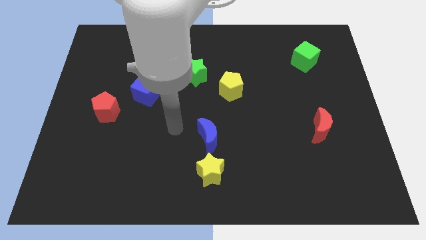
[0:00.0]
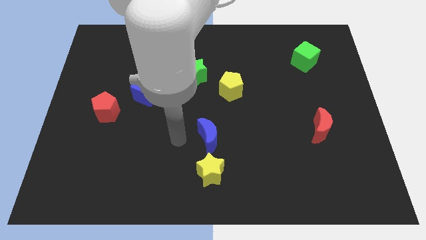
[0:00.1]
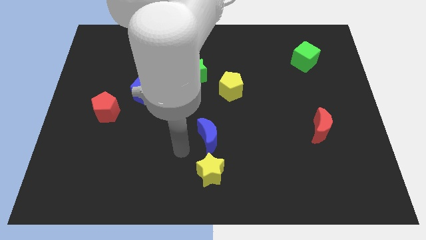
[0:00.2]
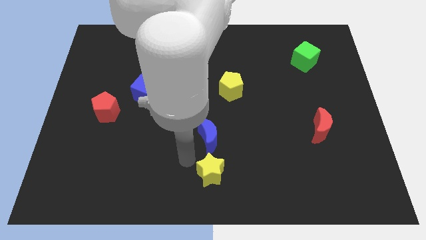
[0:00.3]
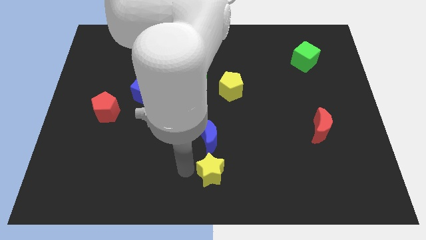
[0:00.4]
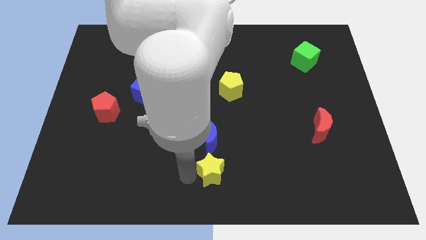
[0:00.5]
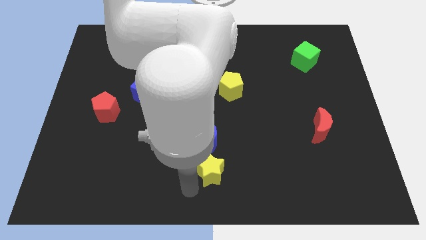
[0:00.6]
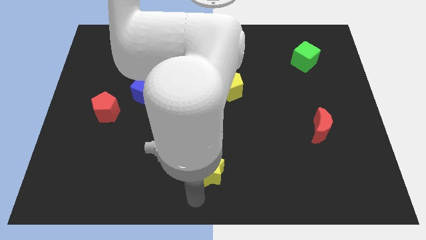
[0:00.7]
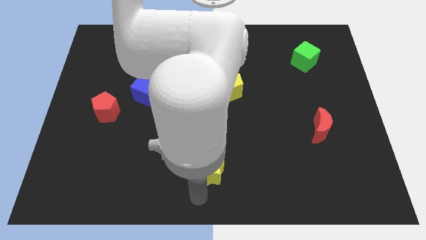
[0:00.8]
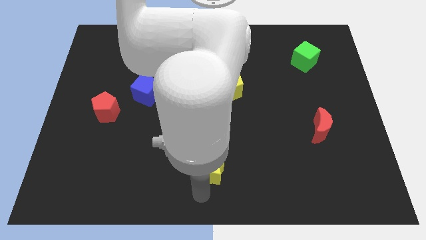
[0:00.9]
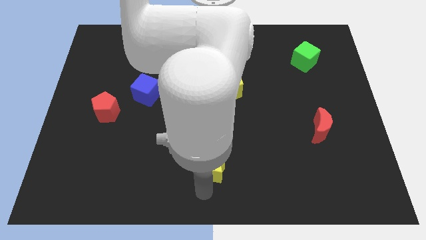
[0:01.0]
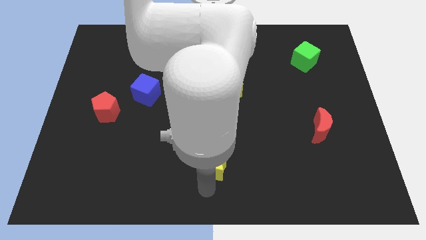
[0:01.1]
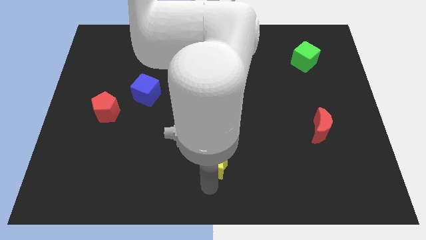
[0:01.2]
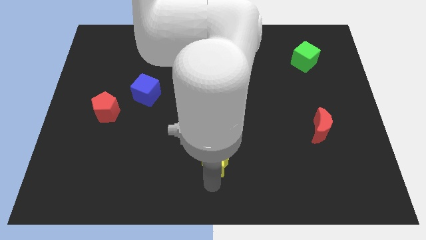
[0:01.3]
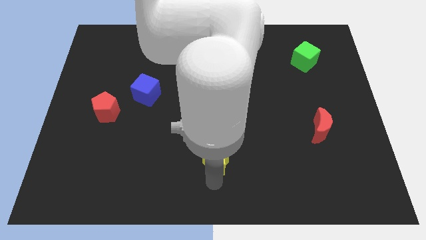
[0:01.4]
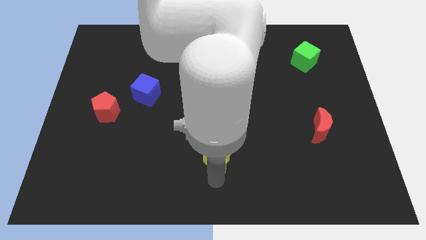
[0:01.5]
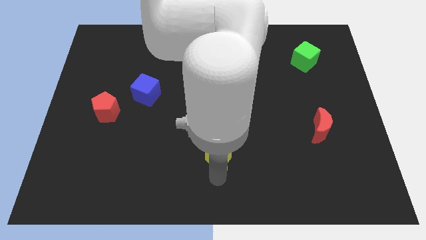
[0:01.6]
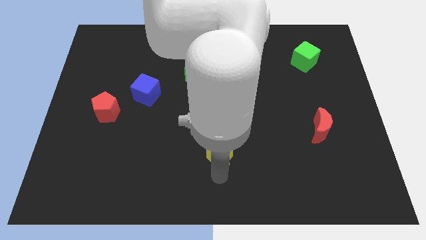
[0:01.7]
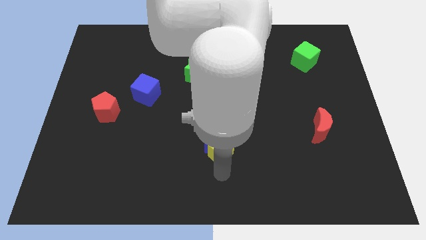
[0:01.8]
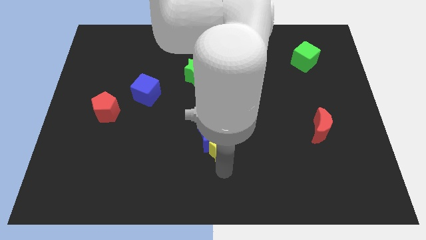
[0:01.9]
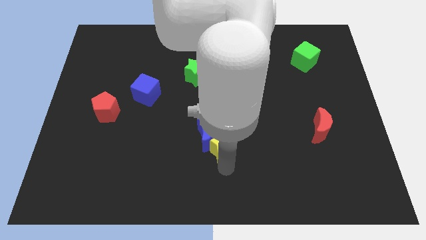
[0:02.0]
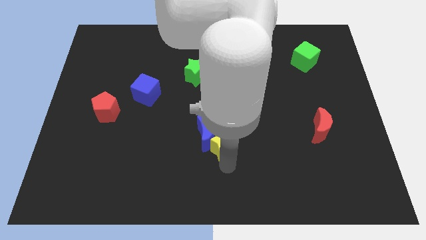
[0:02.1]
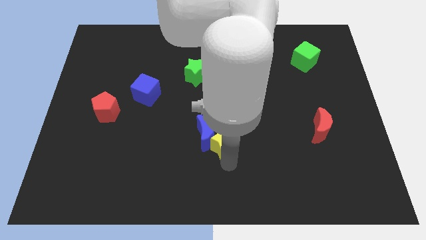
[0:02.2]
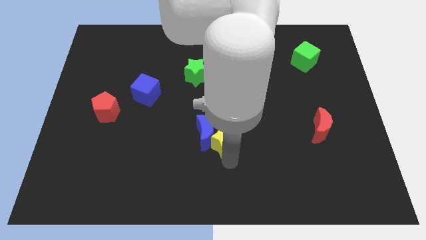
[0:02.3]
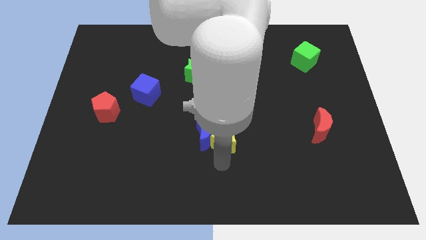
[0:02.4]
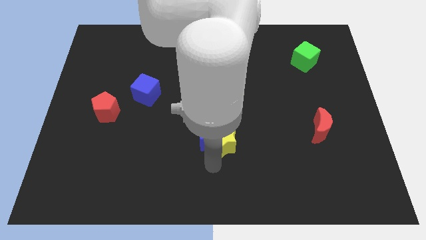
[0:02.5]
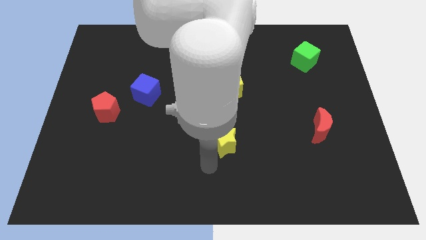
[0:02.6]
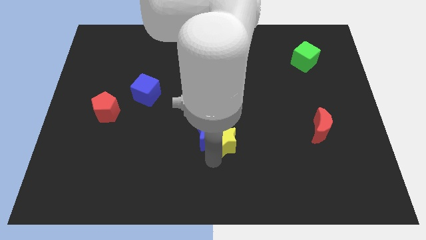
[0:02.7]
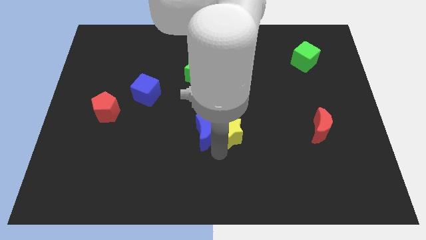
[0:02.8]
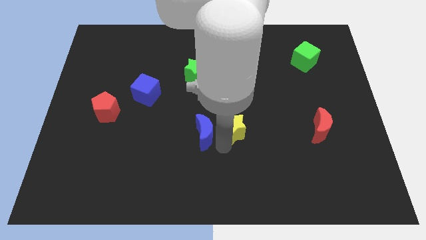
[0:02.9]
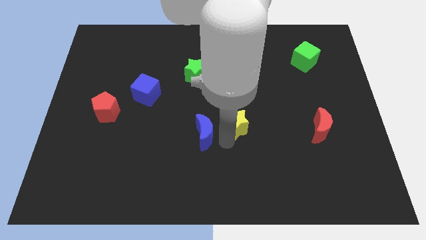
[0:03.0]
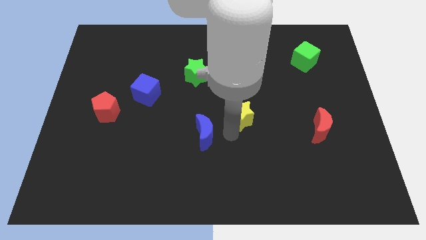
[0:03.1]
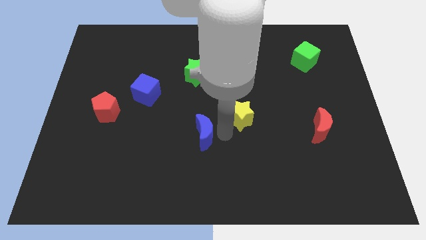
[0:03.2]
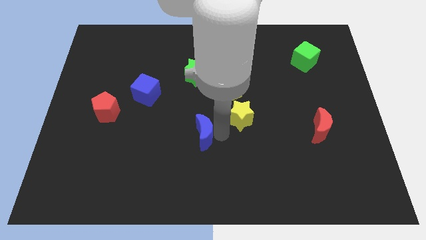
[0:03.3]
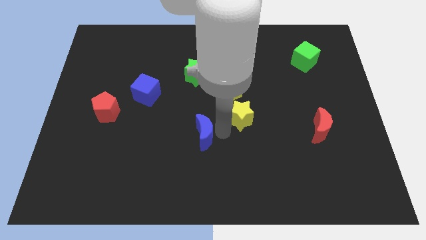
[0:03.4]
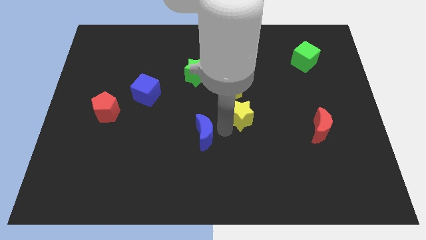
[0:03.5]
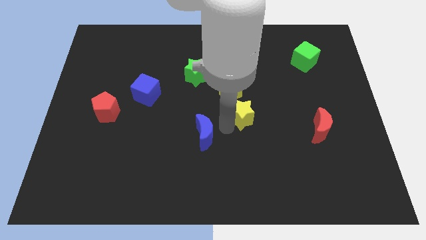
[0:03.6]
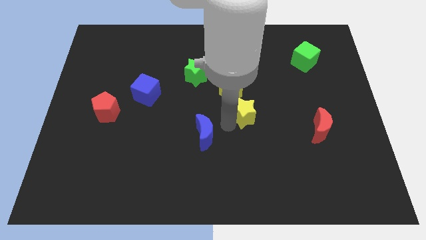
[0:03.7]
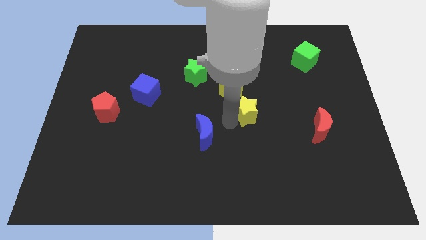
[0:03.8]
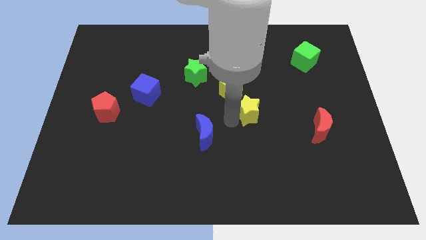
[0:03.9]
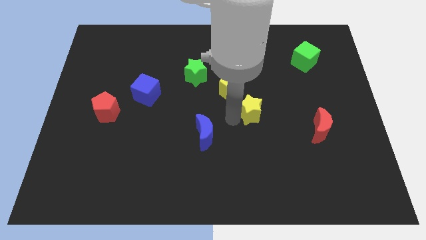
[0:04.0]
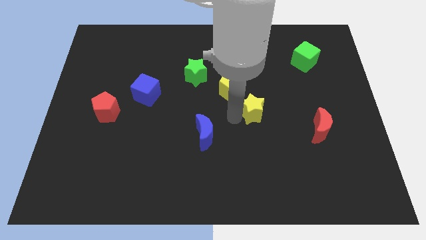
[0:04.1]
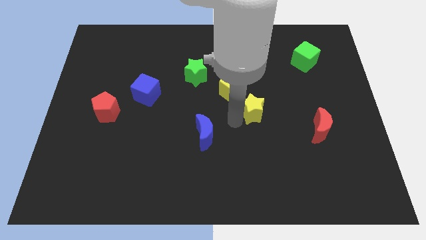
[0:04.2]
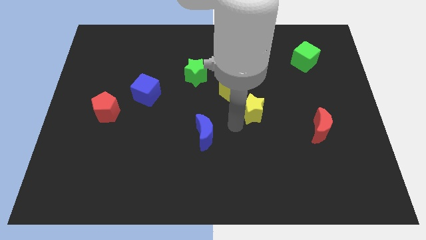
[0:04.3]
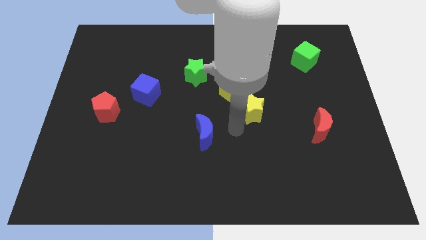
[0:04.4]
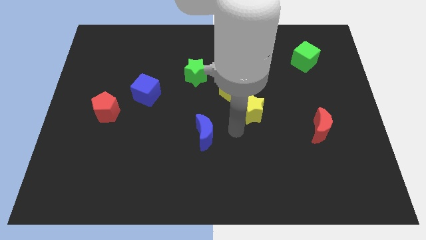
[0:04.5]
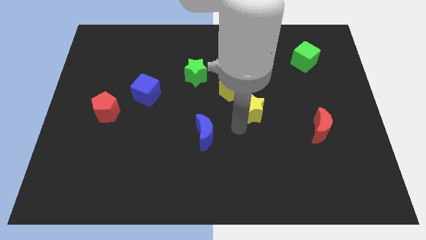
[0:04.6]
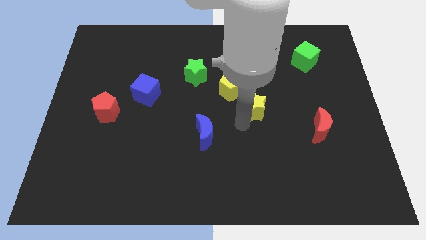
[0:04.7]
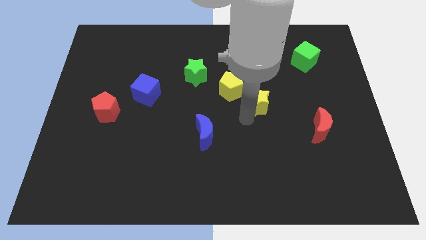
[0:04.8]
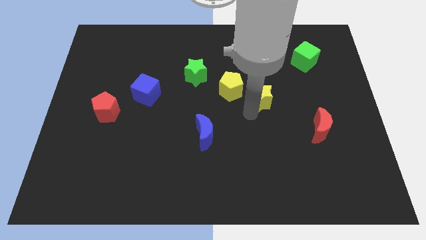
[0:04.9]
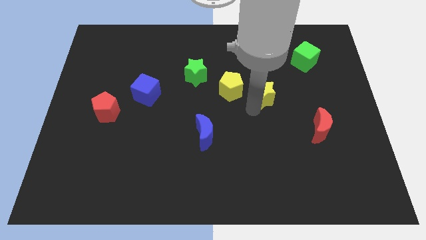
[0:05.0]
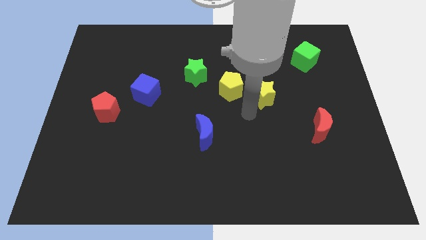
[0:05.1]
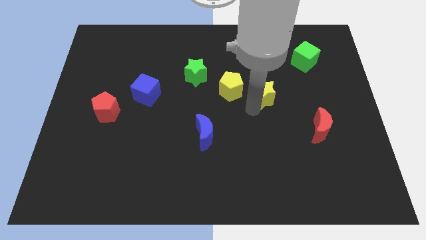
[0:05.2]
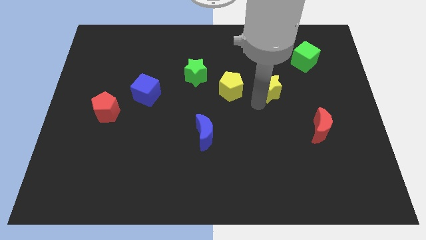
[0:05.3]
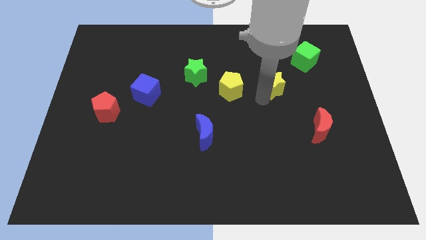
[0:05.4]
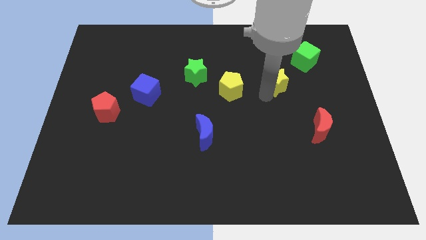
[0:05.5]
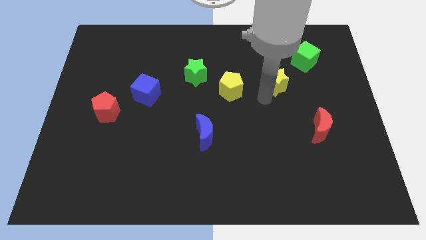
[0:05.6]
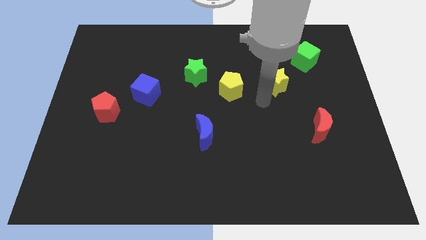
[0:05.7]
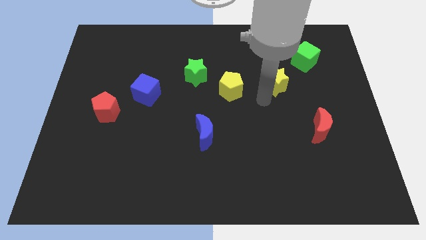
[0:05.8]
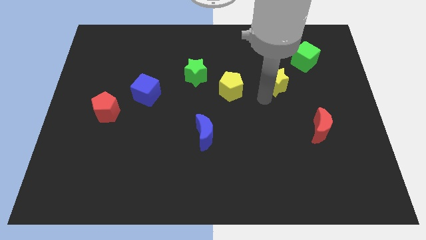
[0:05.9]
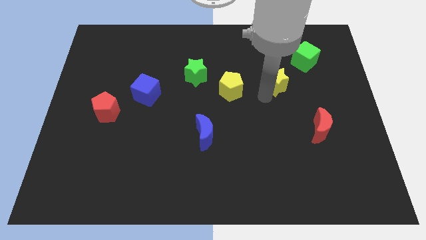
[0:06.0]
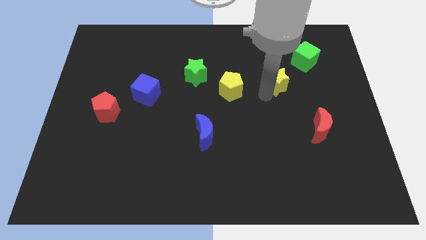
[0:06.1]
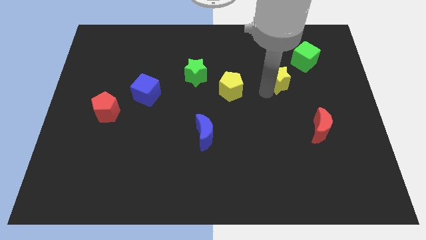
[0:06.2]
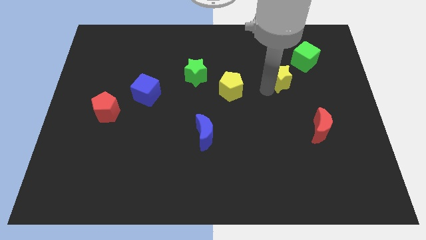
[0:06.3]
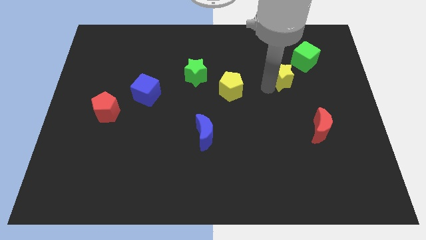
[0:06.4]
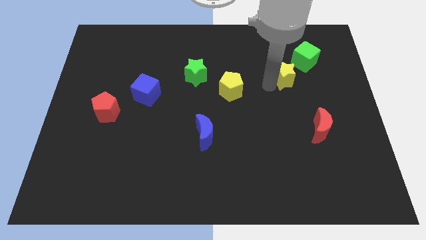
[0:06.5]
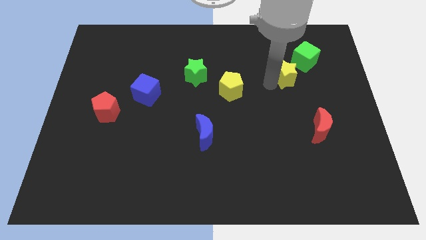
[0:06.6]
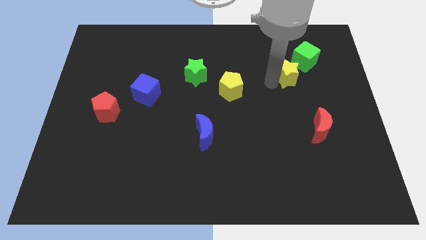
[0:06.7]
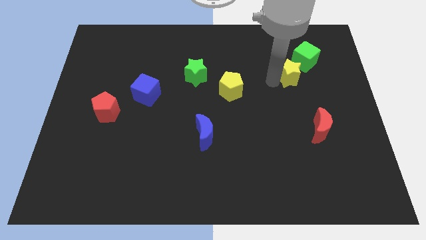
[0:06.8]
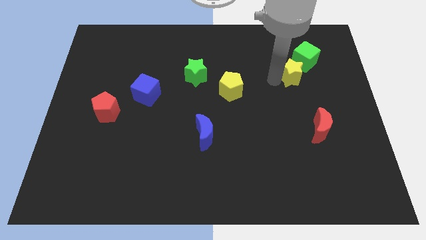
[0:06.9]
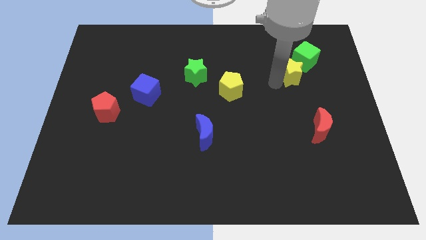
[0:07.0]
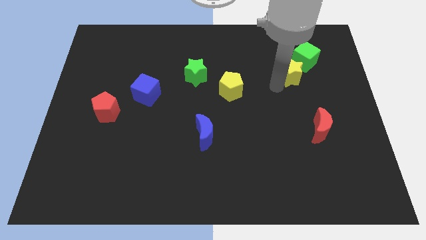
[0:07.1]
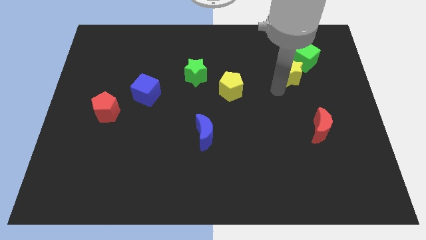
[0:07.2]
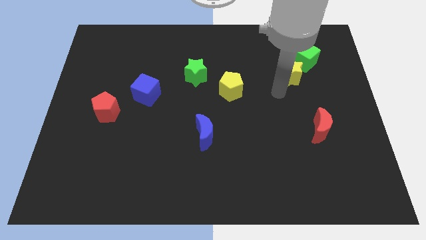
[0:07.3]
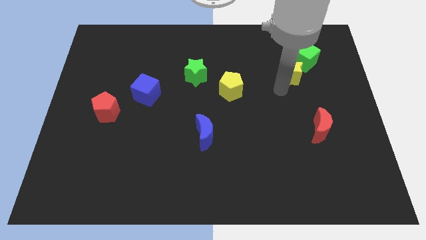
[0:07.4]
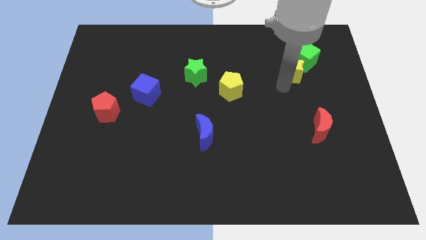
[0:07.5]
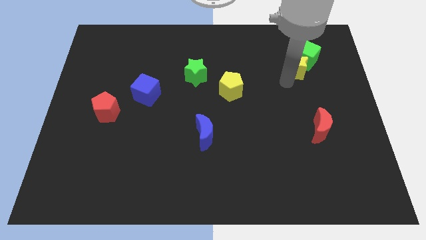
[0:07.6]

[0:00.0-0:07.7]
push the yellow star next to the green cube
